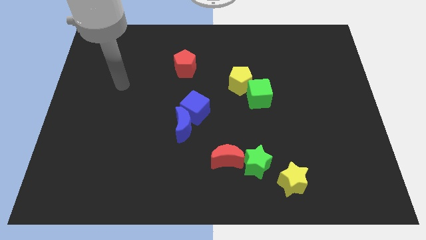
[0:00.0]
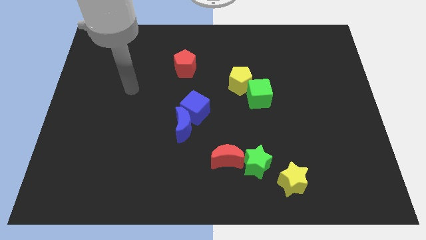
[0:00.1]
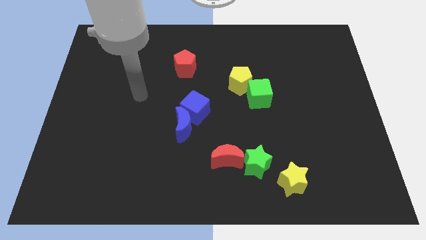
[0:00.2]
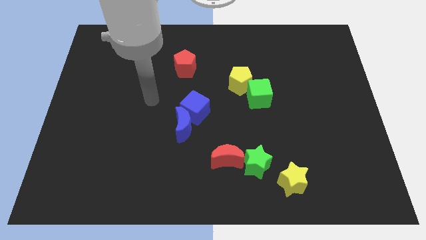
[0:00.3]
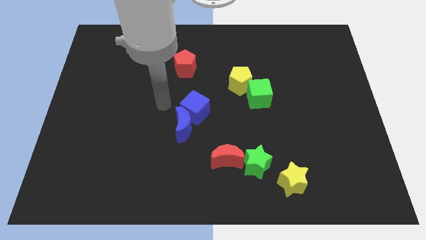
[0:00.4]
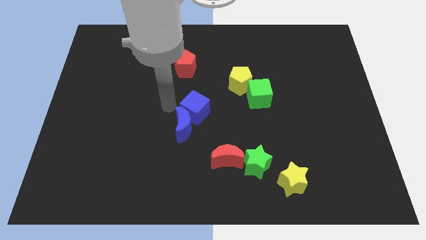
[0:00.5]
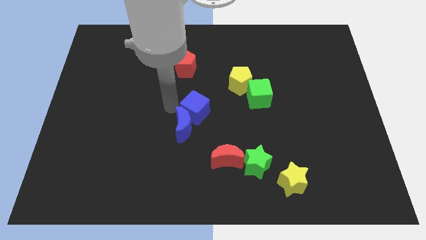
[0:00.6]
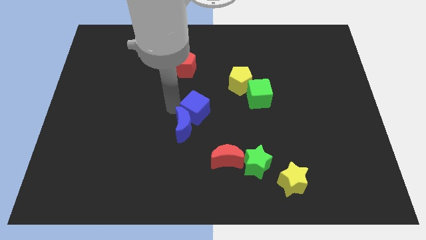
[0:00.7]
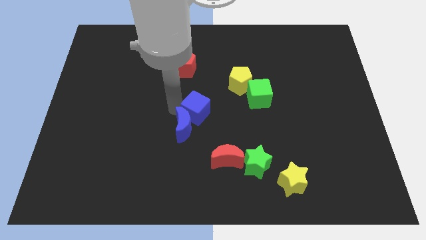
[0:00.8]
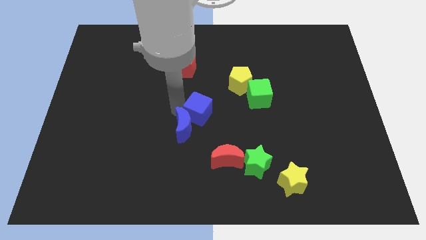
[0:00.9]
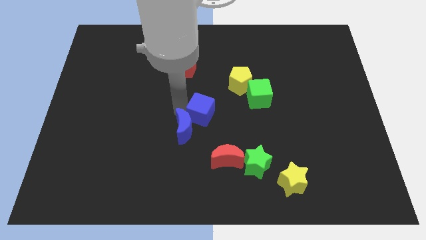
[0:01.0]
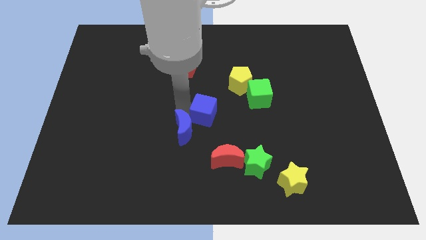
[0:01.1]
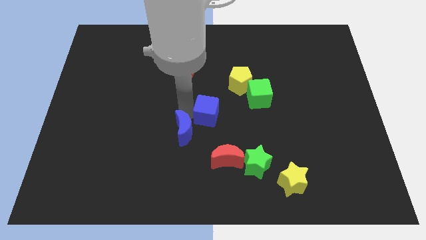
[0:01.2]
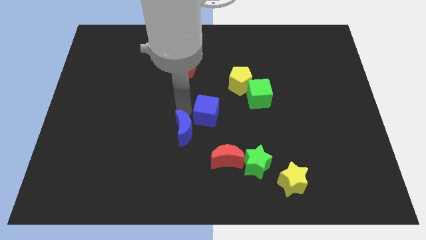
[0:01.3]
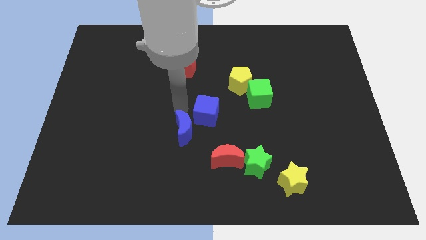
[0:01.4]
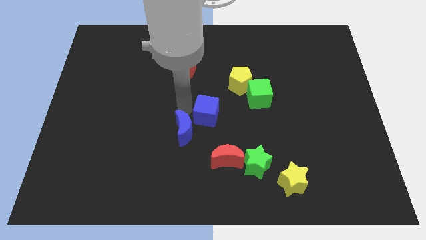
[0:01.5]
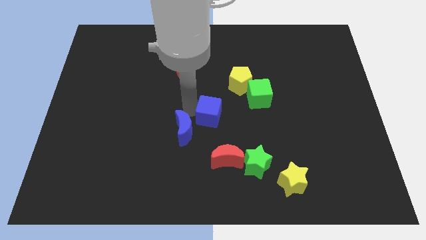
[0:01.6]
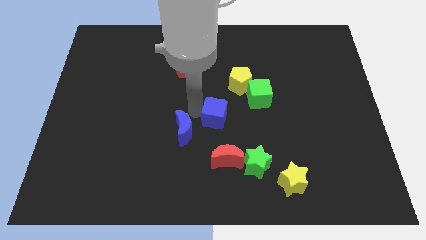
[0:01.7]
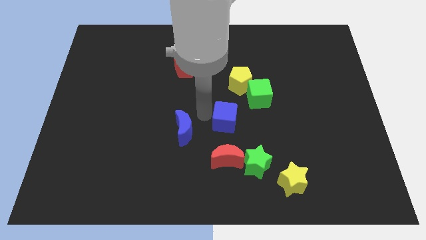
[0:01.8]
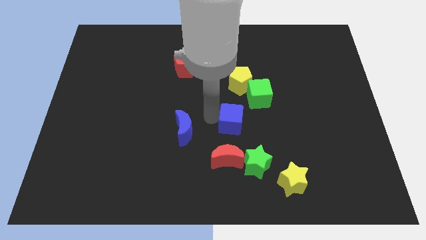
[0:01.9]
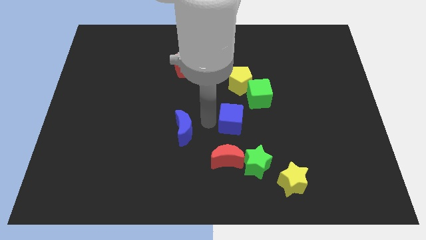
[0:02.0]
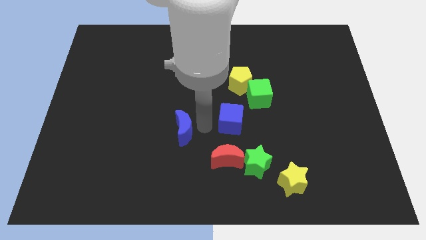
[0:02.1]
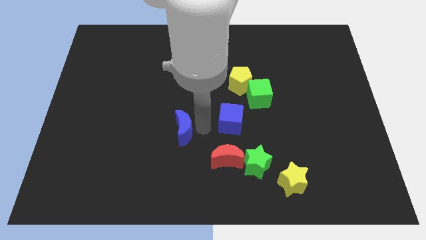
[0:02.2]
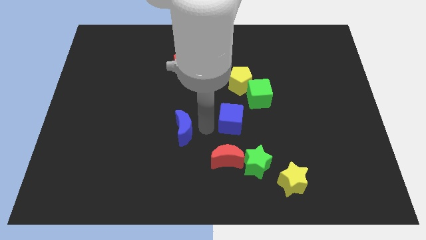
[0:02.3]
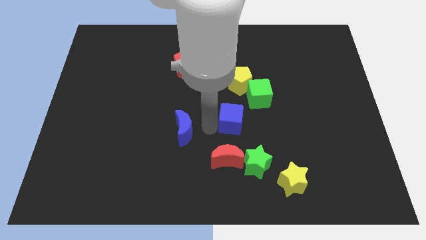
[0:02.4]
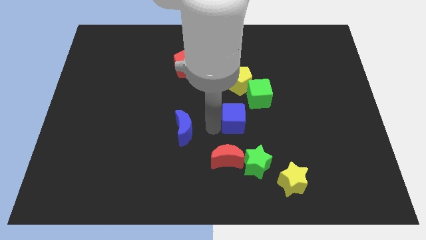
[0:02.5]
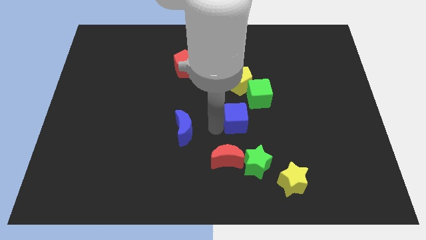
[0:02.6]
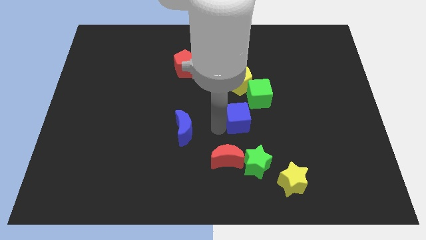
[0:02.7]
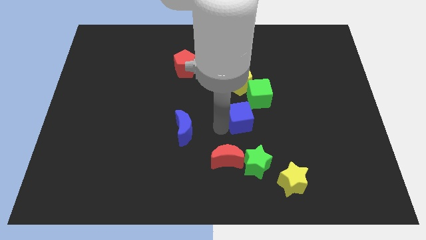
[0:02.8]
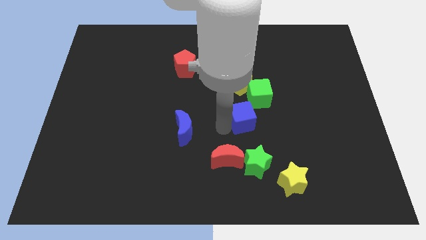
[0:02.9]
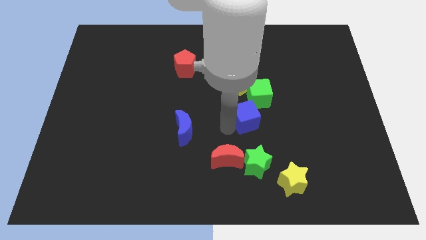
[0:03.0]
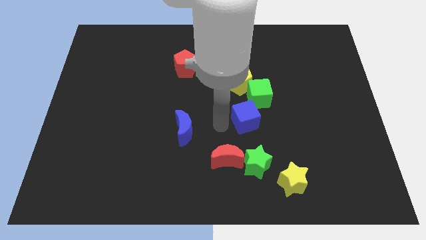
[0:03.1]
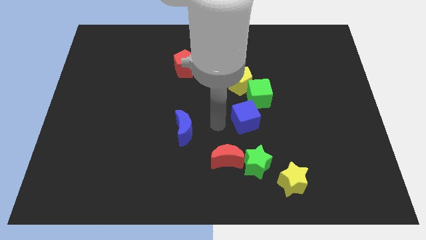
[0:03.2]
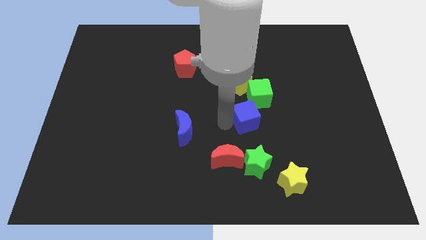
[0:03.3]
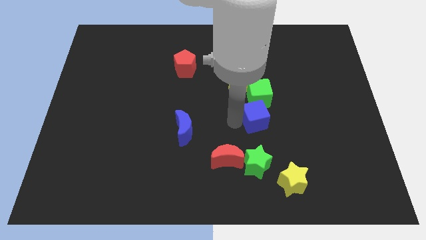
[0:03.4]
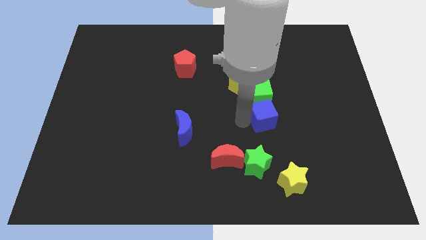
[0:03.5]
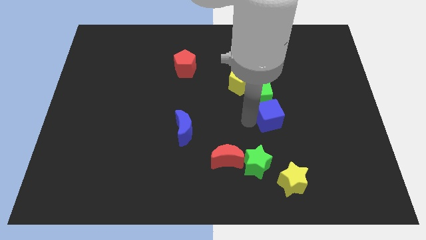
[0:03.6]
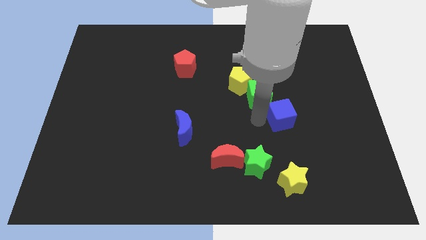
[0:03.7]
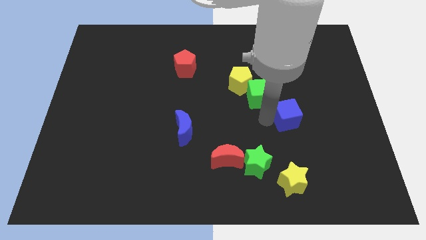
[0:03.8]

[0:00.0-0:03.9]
push the blue cube right

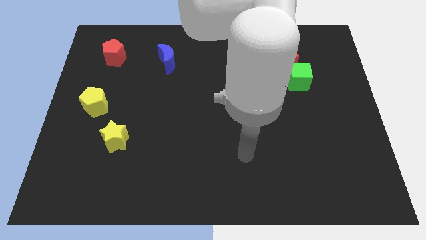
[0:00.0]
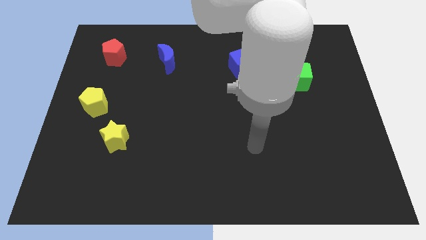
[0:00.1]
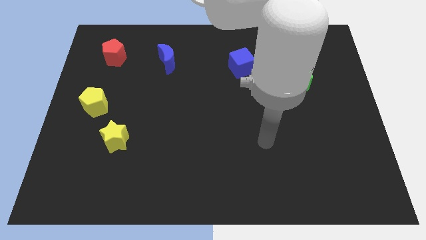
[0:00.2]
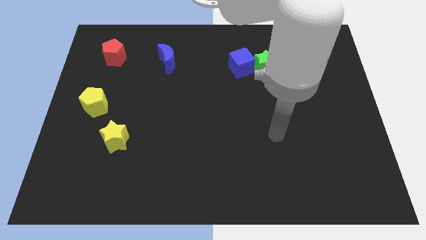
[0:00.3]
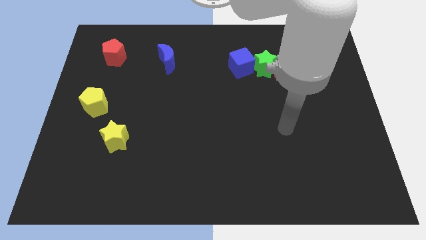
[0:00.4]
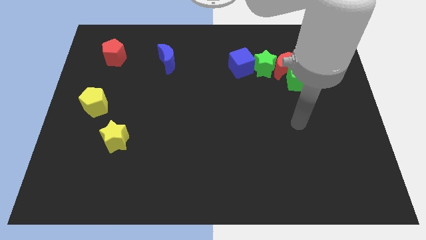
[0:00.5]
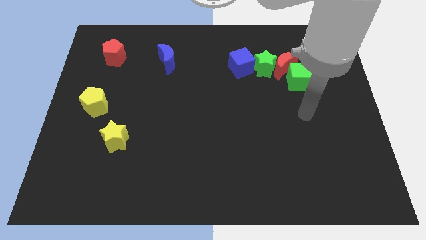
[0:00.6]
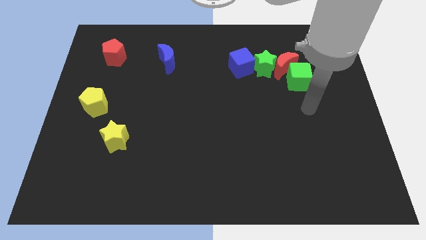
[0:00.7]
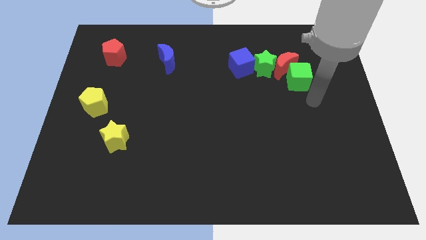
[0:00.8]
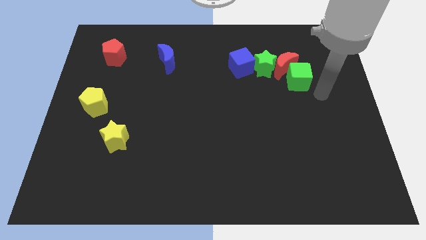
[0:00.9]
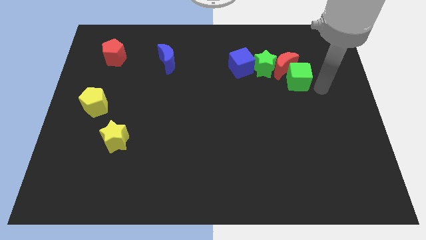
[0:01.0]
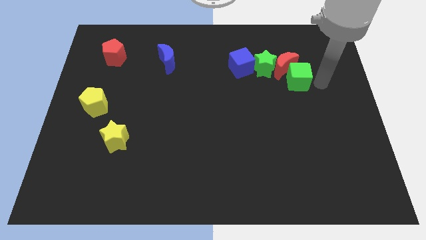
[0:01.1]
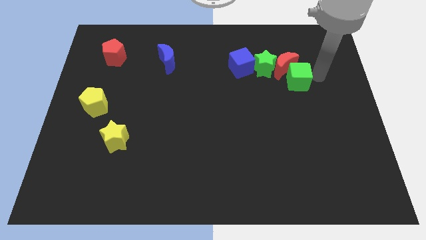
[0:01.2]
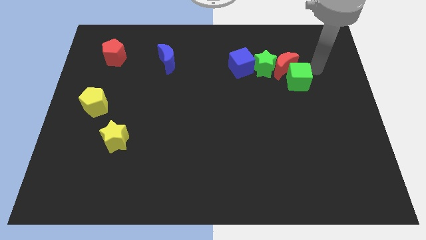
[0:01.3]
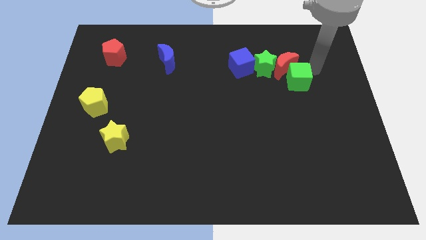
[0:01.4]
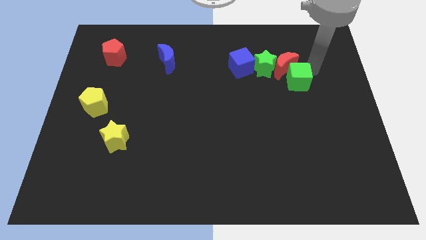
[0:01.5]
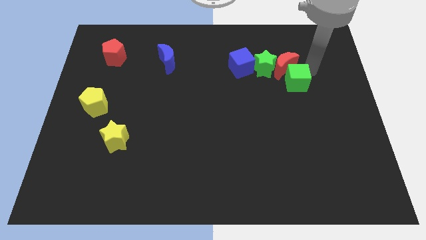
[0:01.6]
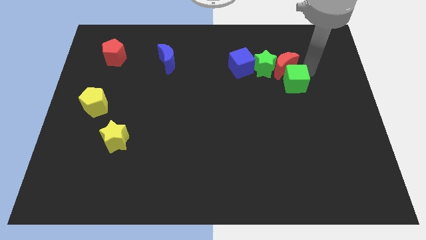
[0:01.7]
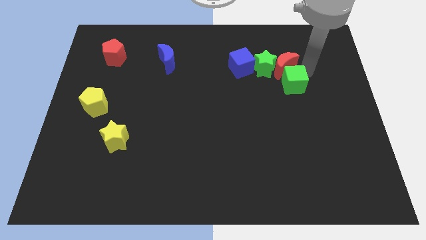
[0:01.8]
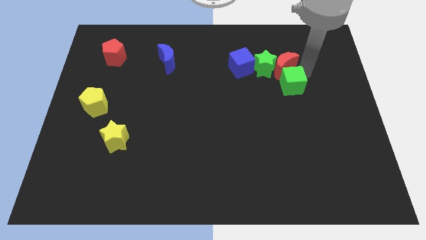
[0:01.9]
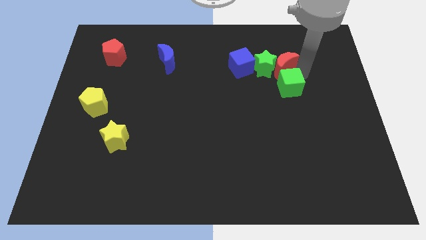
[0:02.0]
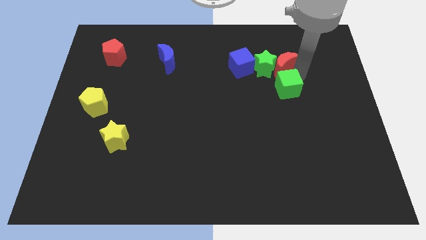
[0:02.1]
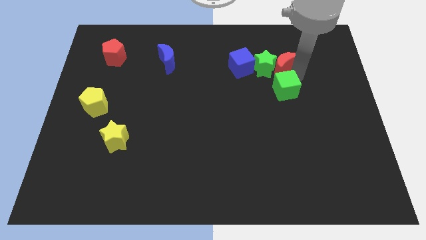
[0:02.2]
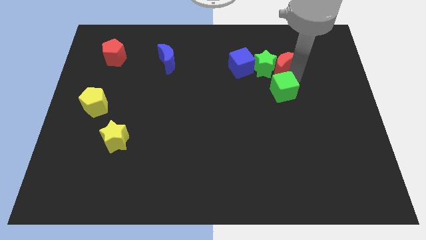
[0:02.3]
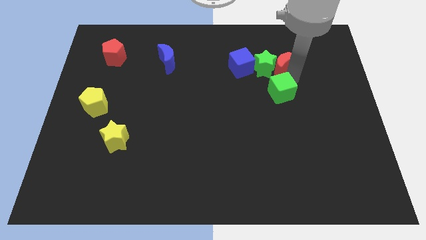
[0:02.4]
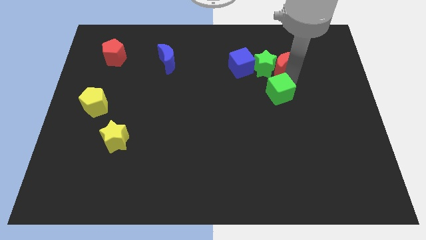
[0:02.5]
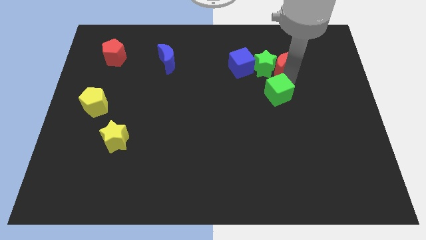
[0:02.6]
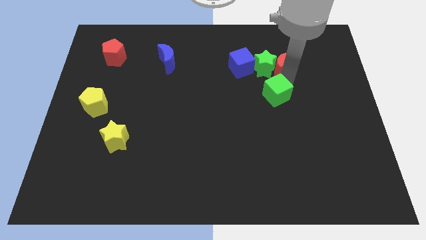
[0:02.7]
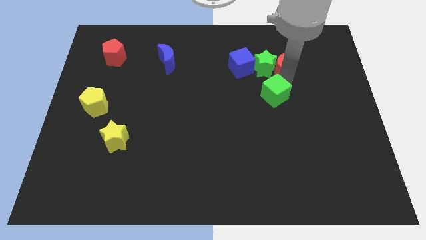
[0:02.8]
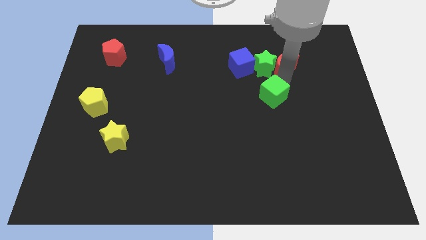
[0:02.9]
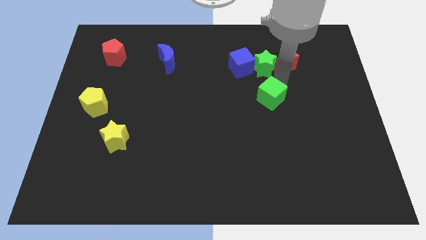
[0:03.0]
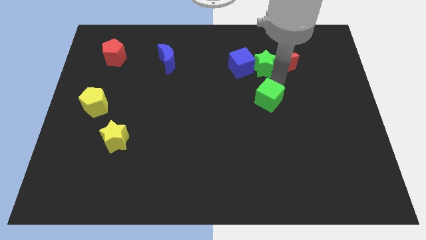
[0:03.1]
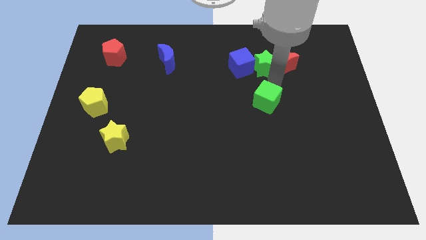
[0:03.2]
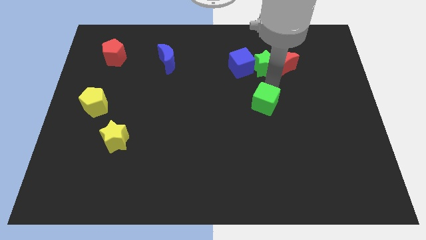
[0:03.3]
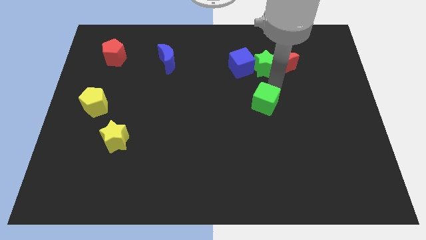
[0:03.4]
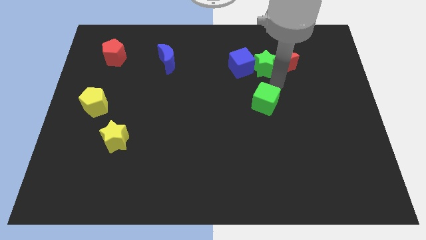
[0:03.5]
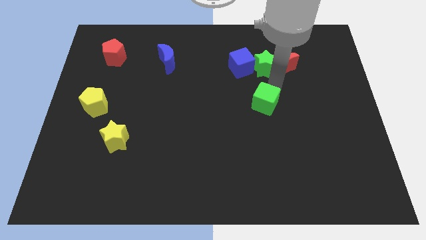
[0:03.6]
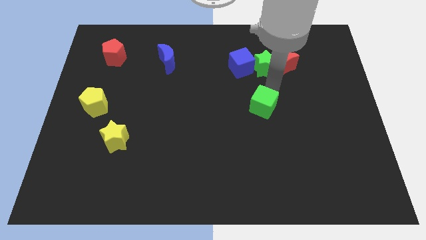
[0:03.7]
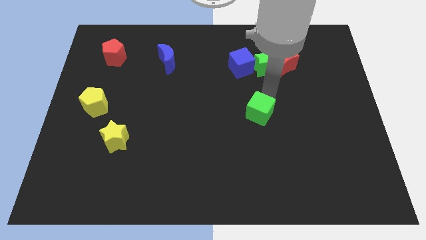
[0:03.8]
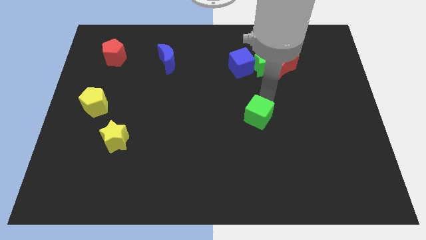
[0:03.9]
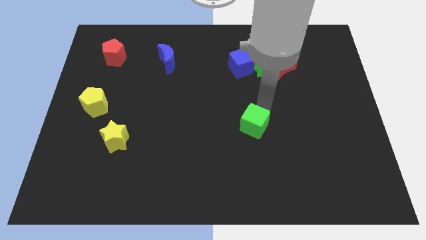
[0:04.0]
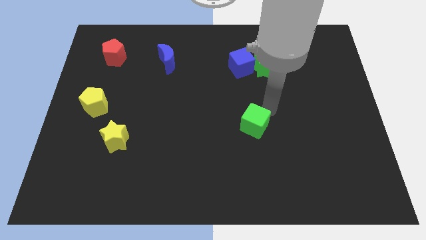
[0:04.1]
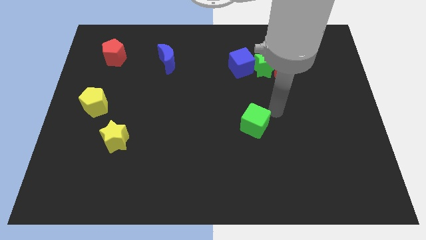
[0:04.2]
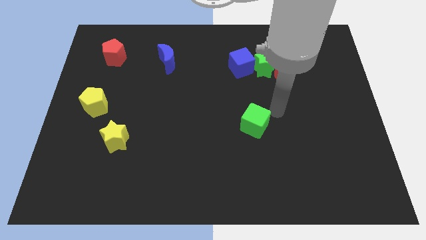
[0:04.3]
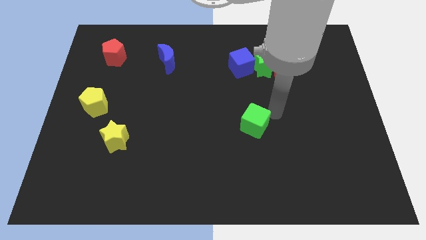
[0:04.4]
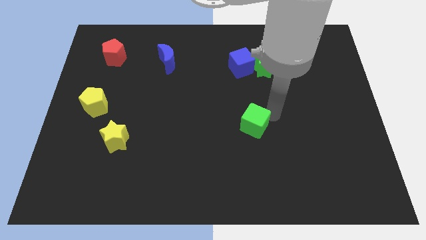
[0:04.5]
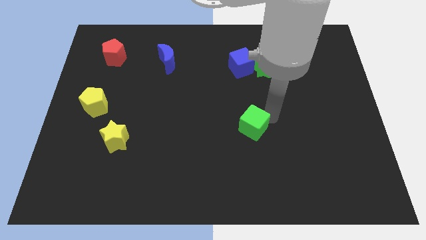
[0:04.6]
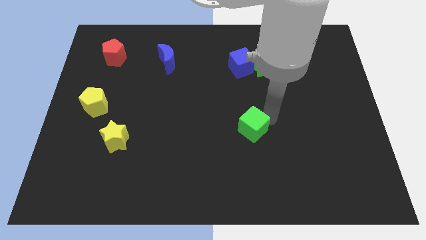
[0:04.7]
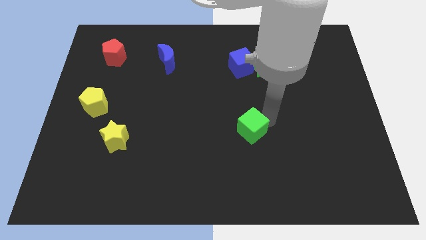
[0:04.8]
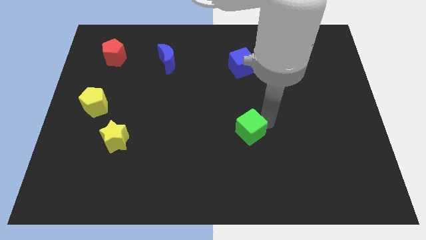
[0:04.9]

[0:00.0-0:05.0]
push the green cube downwards and left diagonally
